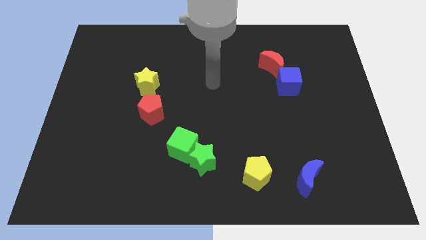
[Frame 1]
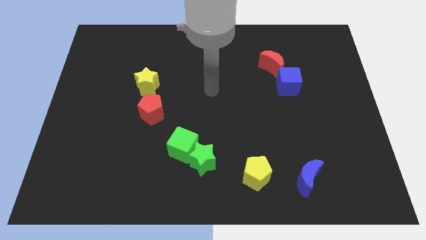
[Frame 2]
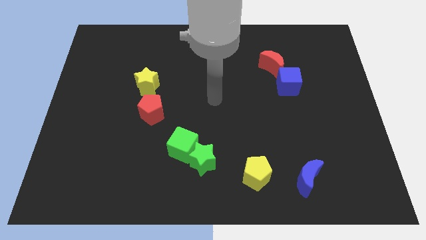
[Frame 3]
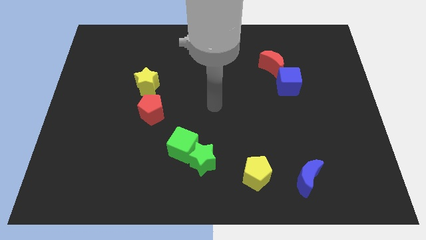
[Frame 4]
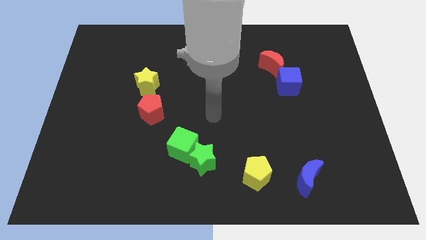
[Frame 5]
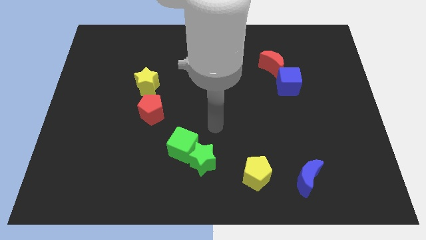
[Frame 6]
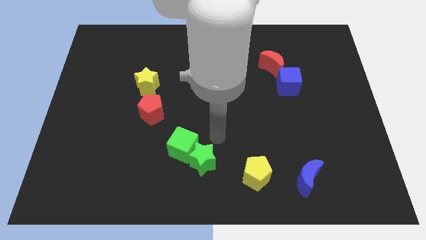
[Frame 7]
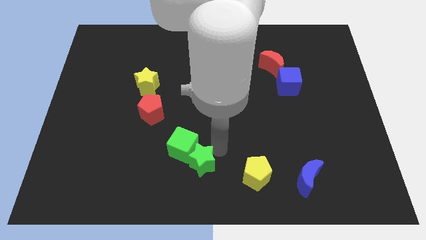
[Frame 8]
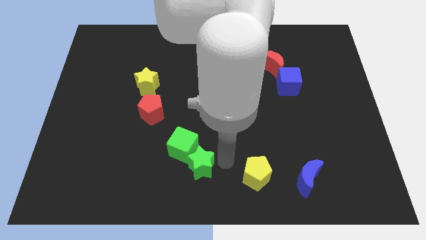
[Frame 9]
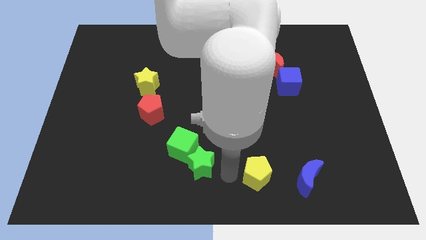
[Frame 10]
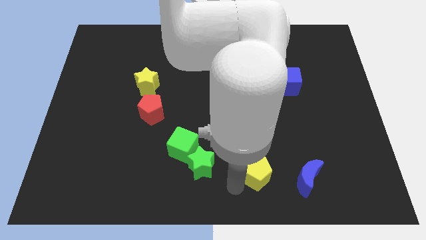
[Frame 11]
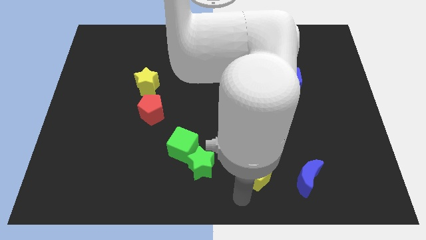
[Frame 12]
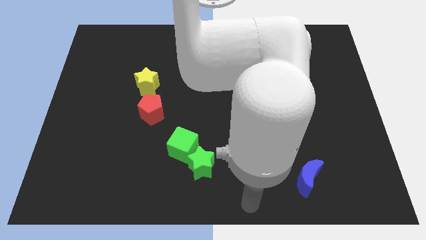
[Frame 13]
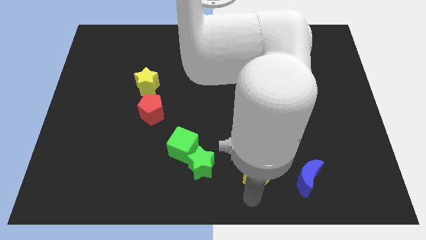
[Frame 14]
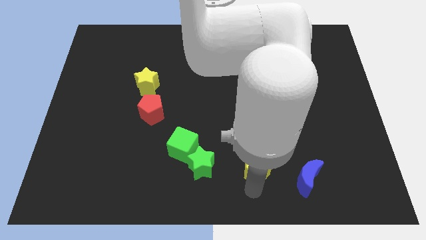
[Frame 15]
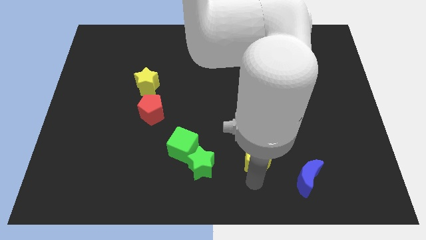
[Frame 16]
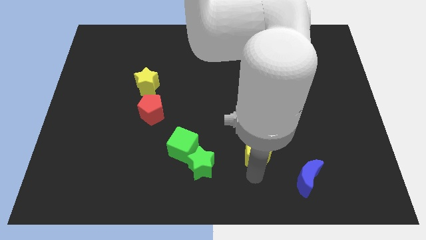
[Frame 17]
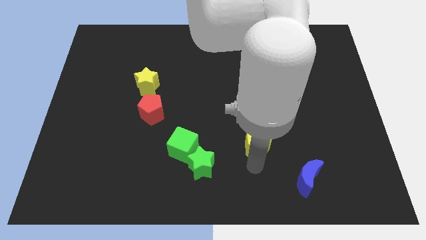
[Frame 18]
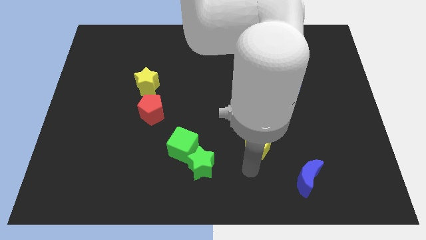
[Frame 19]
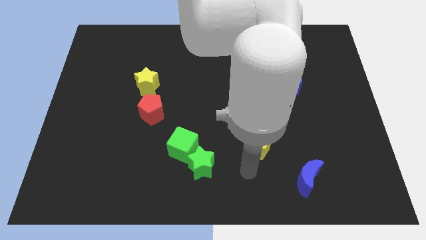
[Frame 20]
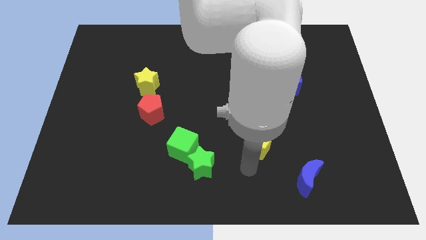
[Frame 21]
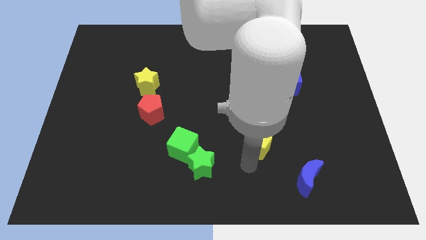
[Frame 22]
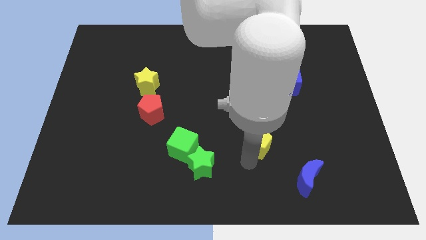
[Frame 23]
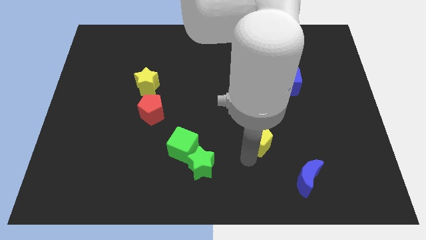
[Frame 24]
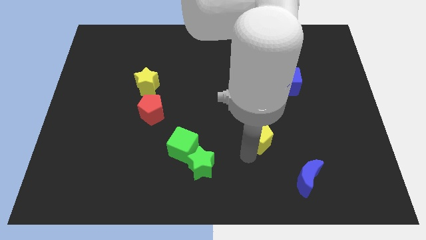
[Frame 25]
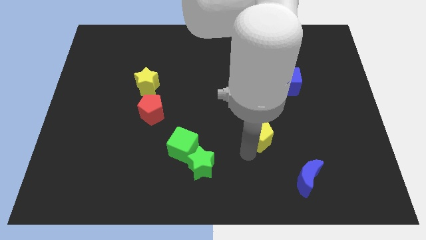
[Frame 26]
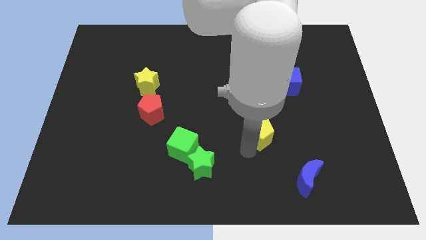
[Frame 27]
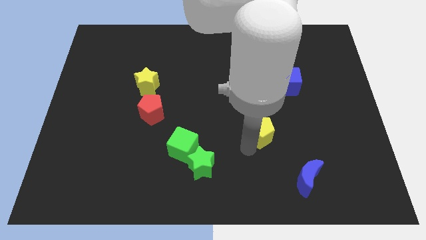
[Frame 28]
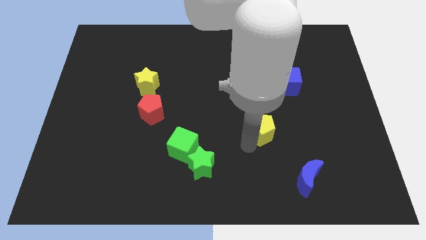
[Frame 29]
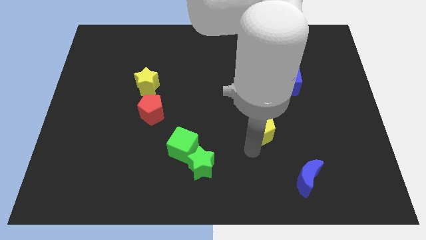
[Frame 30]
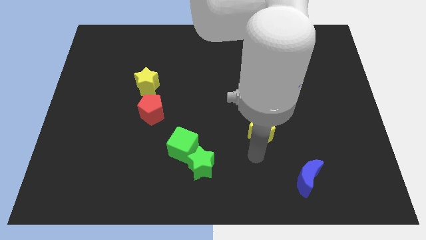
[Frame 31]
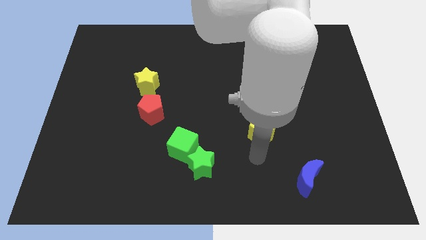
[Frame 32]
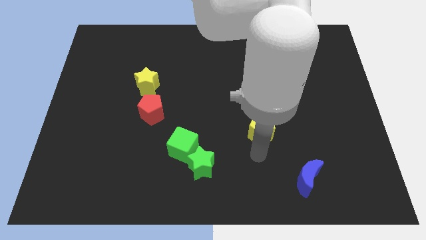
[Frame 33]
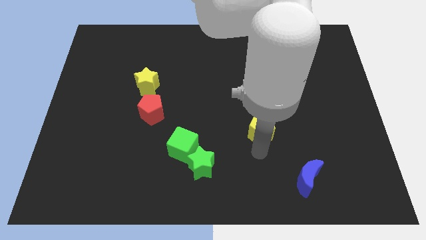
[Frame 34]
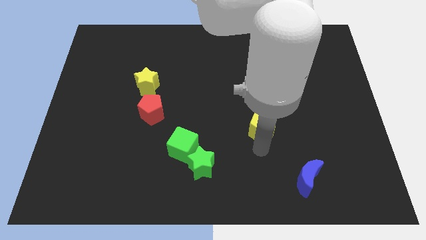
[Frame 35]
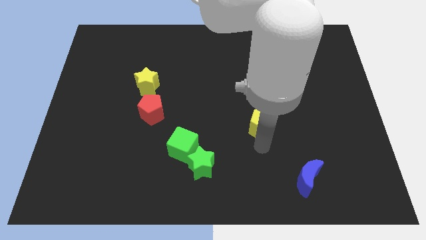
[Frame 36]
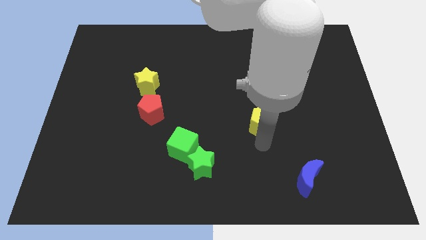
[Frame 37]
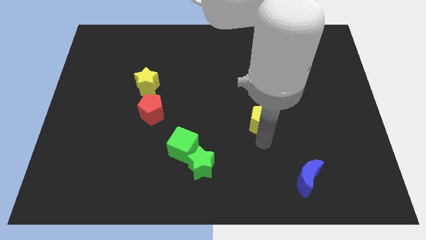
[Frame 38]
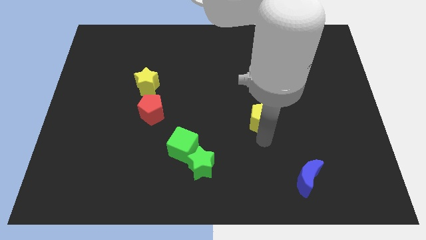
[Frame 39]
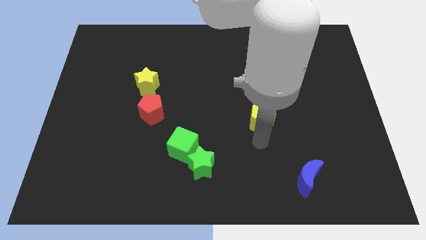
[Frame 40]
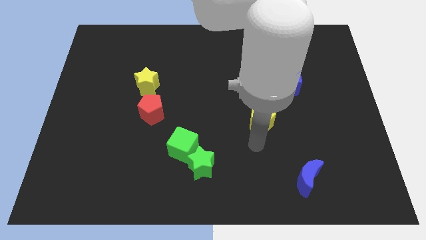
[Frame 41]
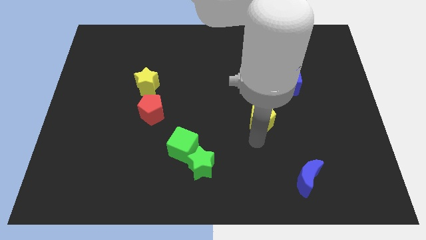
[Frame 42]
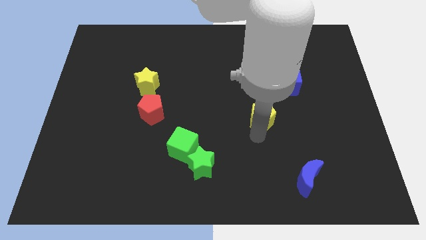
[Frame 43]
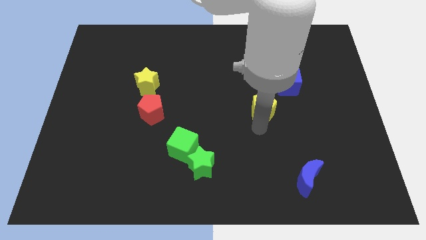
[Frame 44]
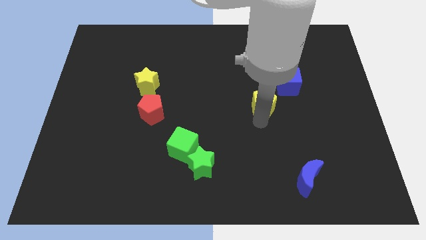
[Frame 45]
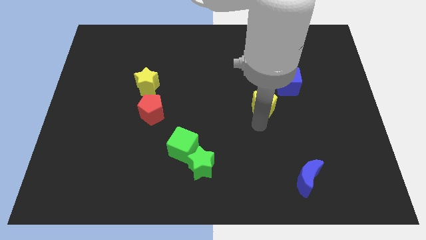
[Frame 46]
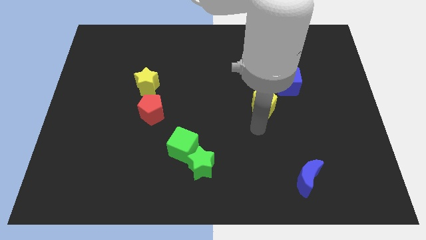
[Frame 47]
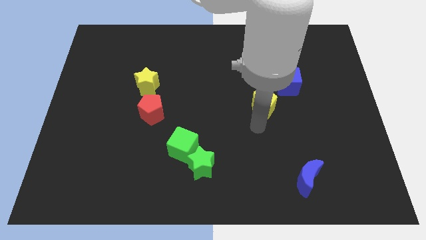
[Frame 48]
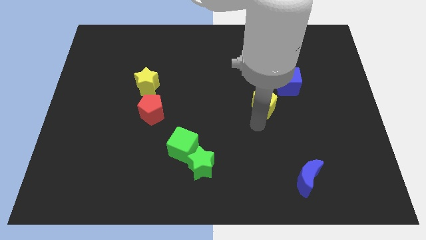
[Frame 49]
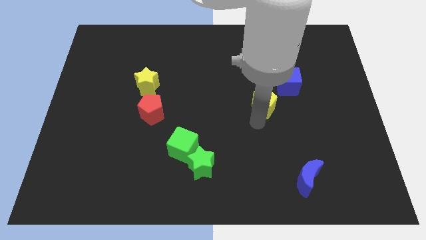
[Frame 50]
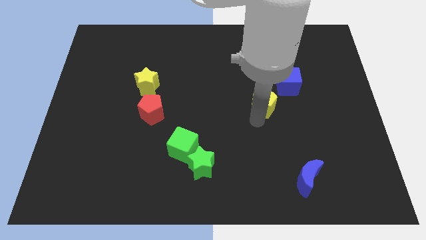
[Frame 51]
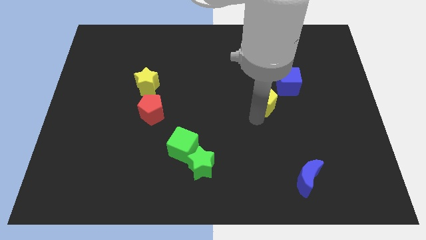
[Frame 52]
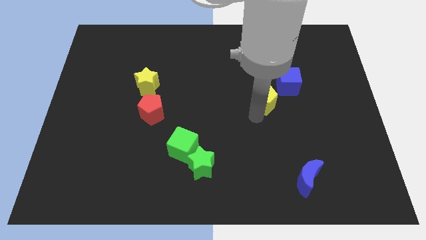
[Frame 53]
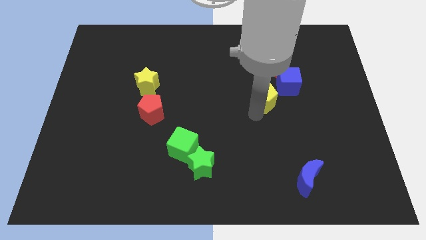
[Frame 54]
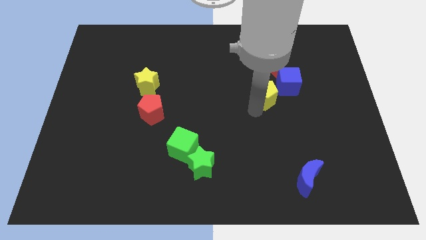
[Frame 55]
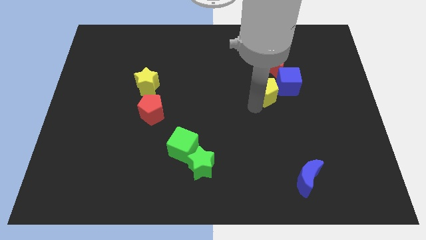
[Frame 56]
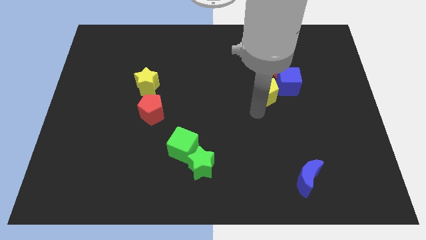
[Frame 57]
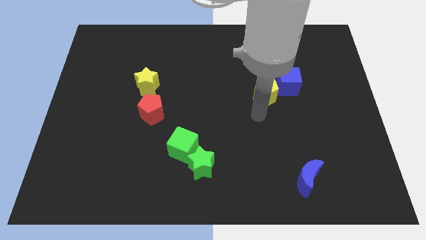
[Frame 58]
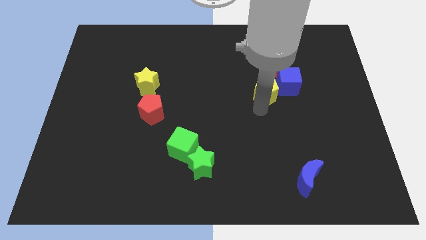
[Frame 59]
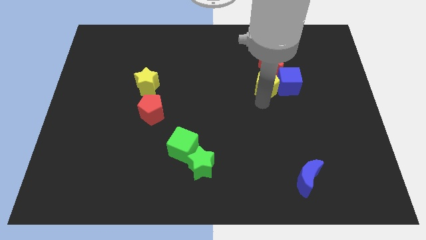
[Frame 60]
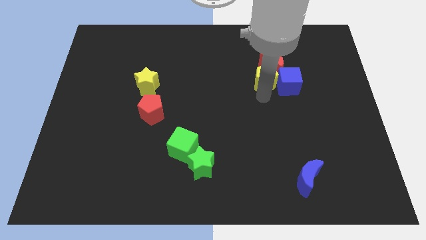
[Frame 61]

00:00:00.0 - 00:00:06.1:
push the yellow pentagon towards the red moon
